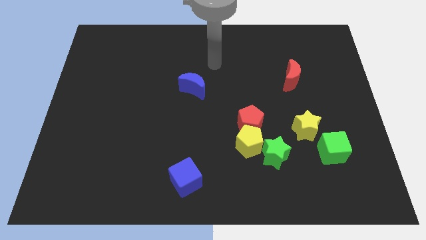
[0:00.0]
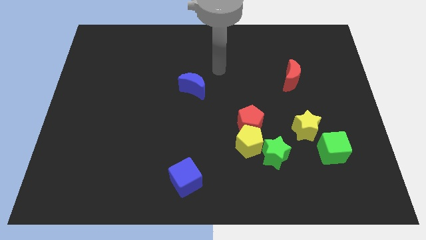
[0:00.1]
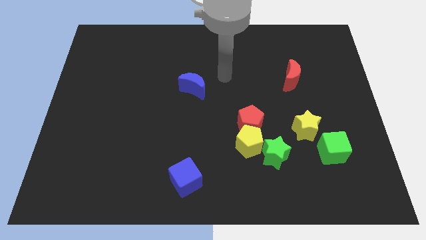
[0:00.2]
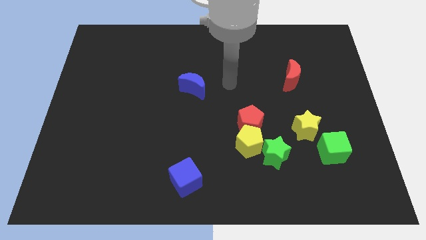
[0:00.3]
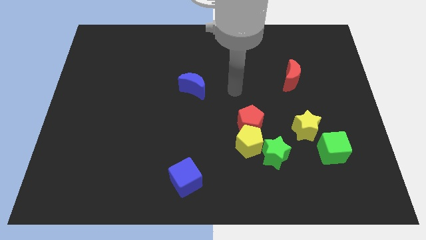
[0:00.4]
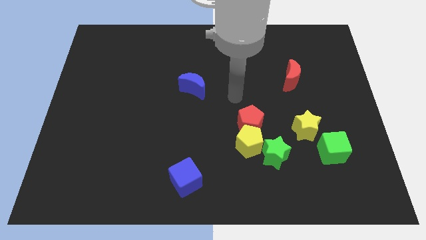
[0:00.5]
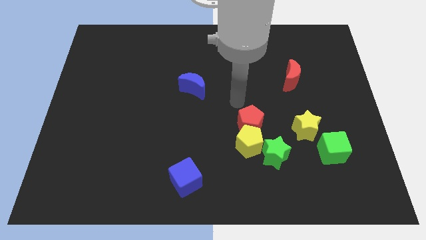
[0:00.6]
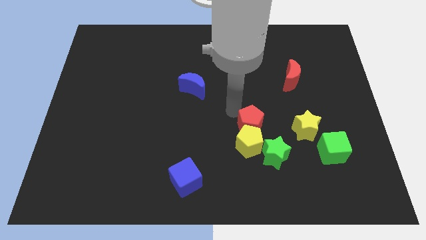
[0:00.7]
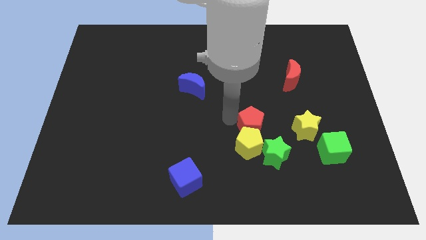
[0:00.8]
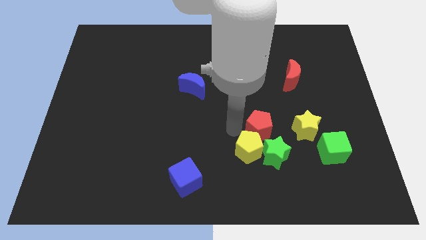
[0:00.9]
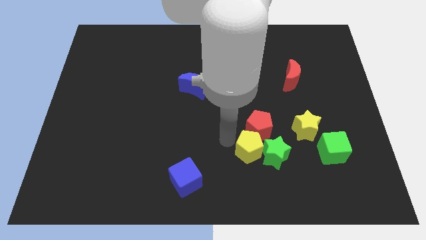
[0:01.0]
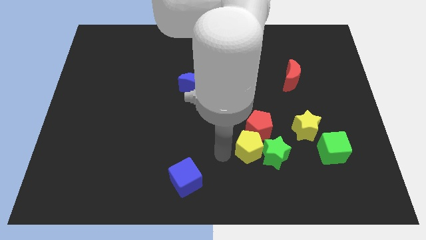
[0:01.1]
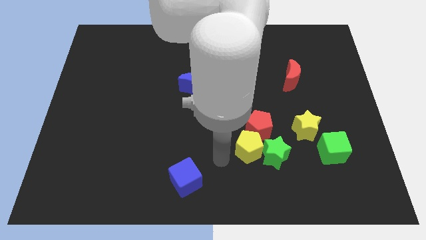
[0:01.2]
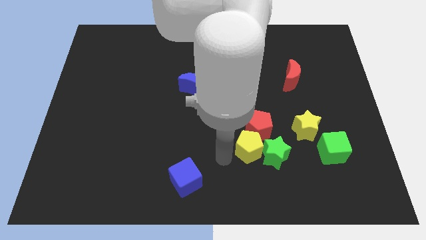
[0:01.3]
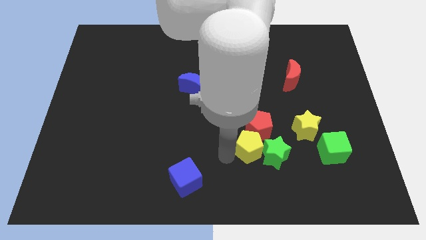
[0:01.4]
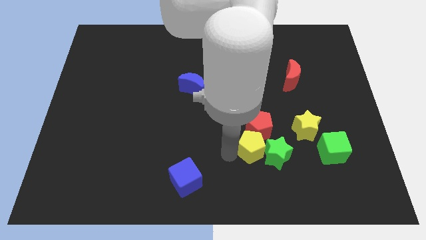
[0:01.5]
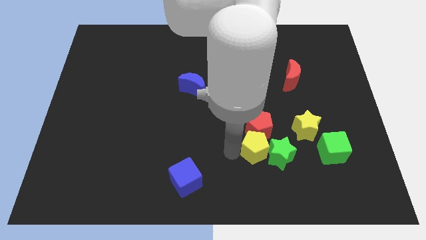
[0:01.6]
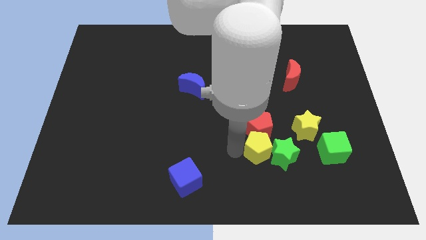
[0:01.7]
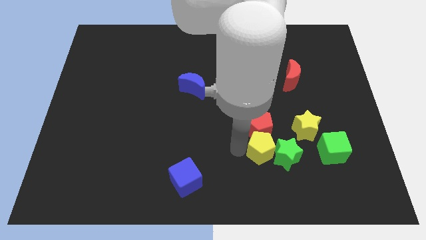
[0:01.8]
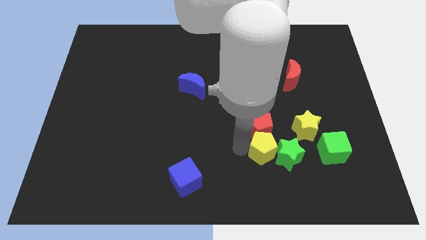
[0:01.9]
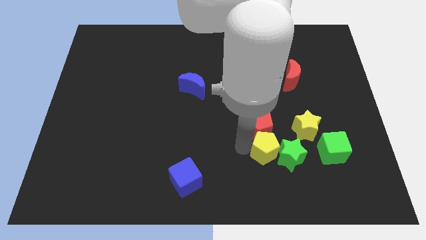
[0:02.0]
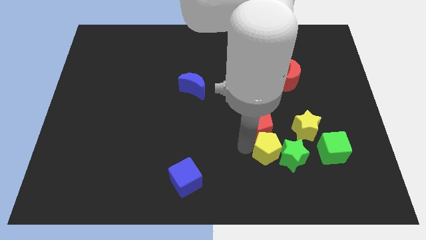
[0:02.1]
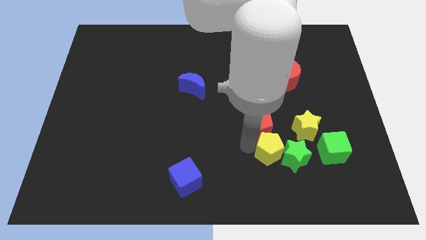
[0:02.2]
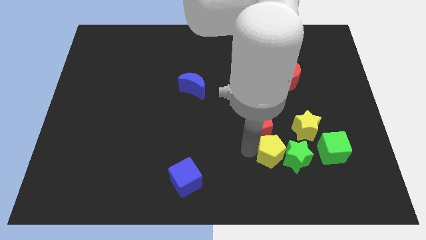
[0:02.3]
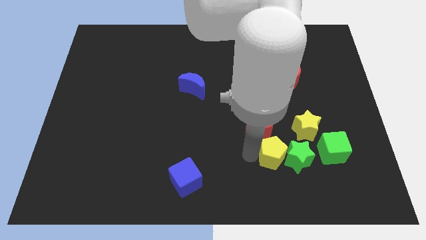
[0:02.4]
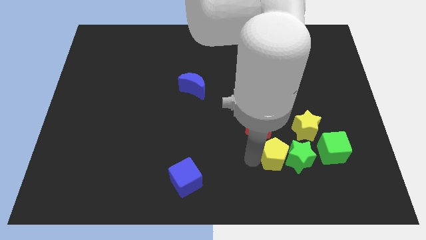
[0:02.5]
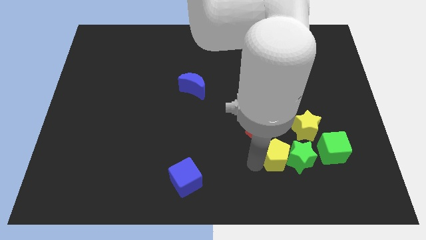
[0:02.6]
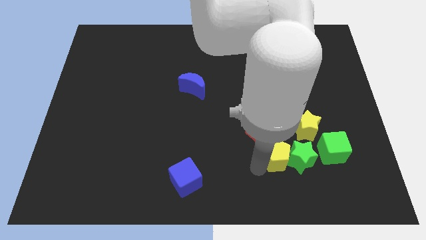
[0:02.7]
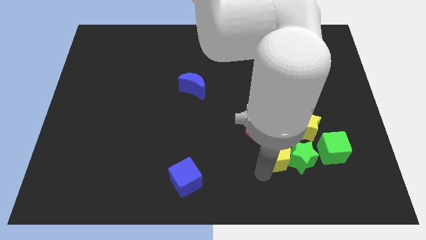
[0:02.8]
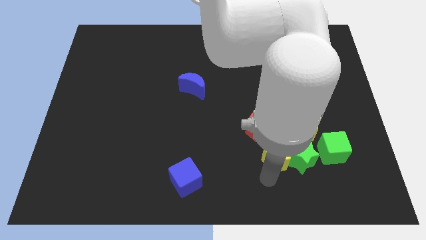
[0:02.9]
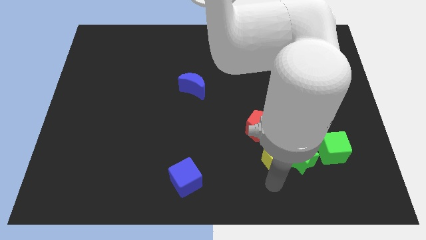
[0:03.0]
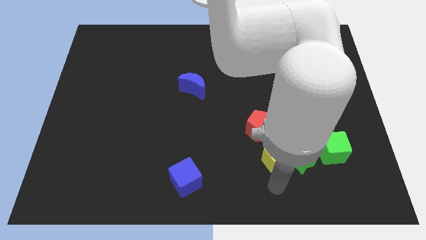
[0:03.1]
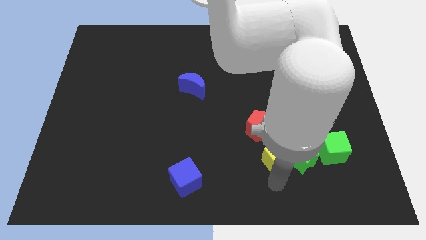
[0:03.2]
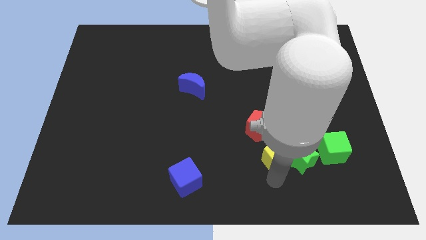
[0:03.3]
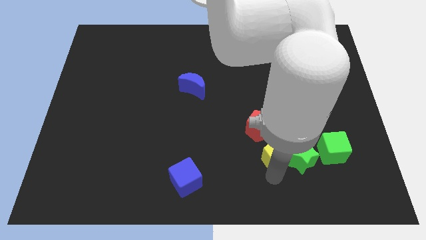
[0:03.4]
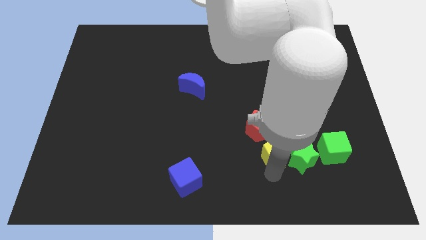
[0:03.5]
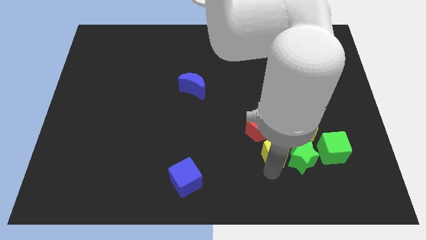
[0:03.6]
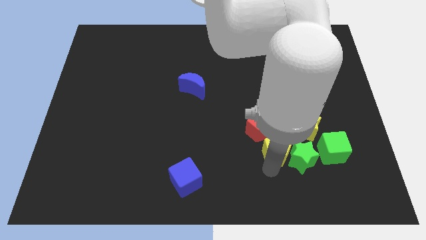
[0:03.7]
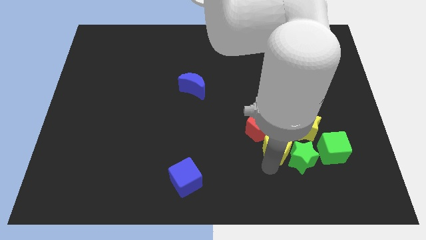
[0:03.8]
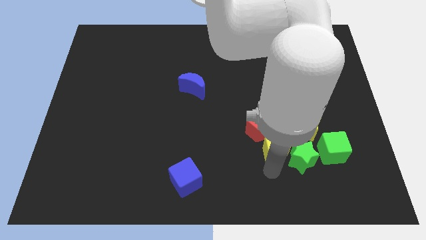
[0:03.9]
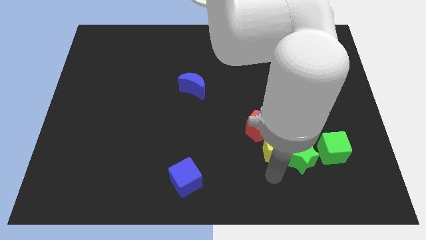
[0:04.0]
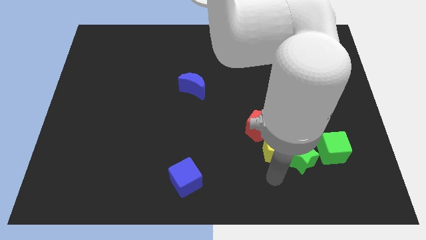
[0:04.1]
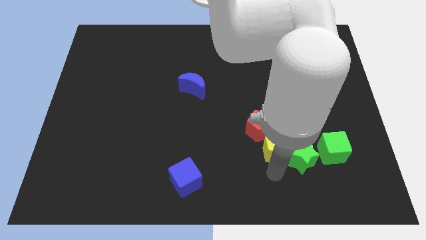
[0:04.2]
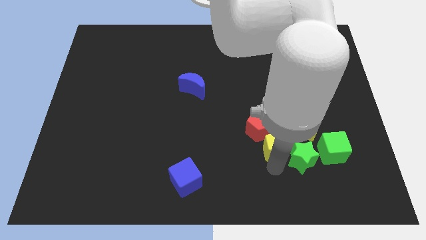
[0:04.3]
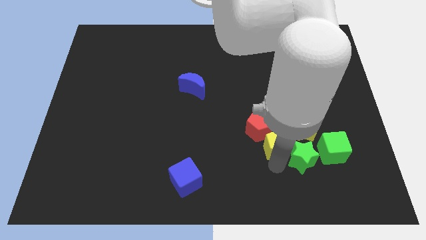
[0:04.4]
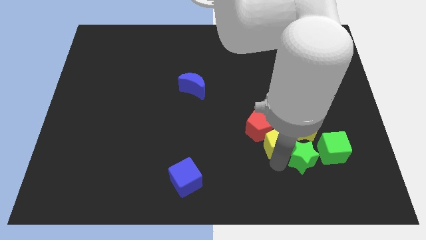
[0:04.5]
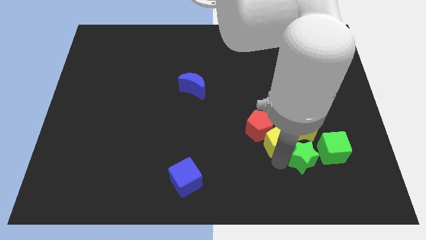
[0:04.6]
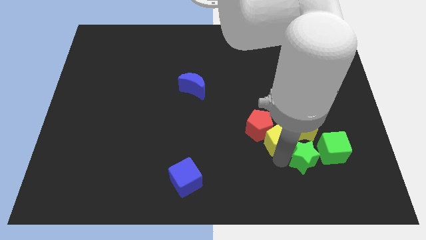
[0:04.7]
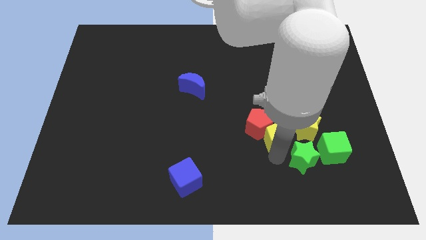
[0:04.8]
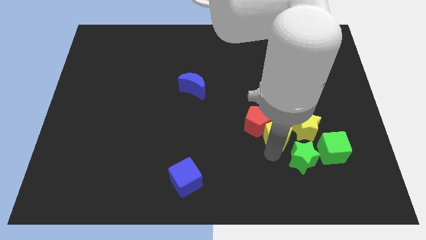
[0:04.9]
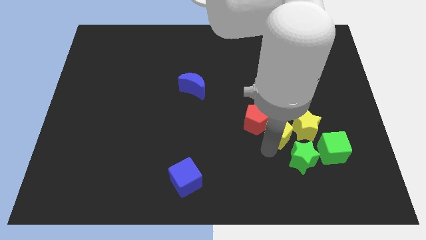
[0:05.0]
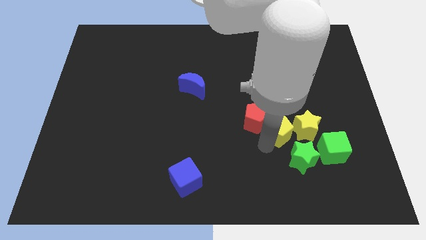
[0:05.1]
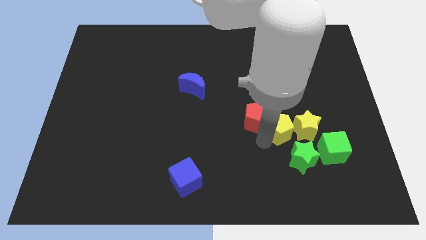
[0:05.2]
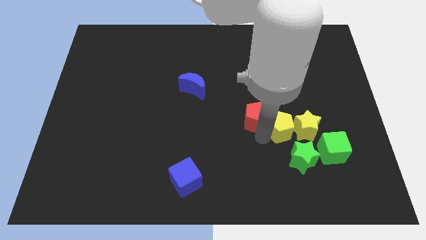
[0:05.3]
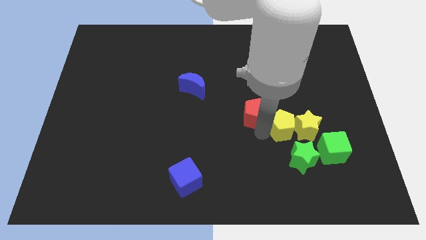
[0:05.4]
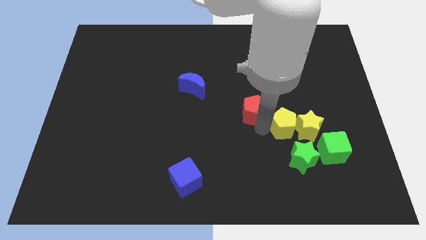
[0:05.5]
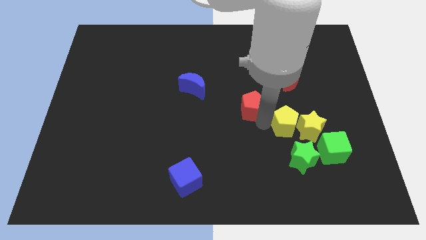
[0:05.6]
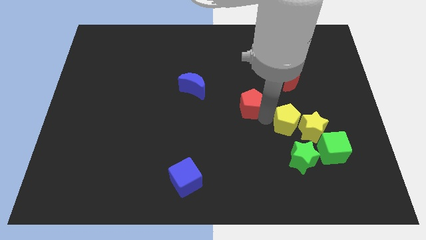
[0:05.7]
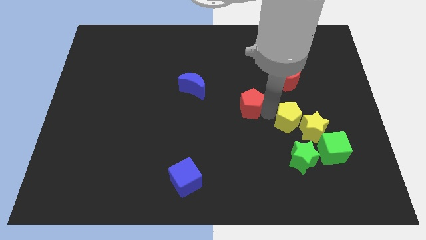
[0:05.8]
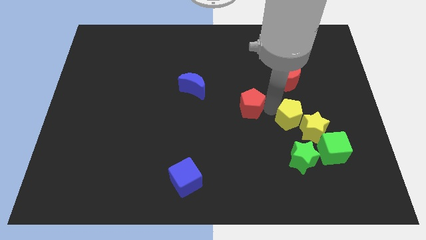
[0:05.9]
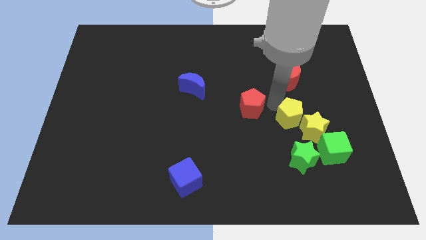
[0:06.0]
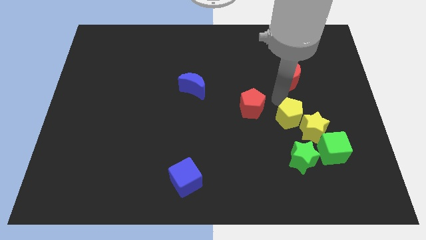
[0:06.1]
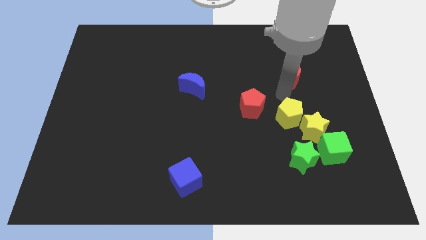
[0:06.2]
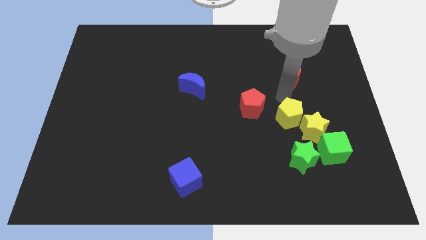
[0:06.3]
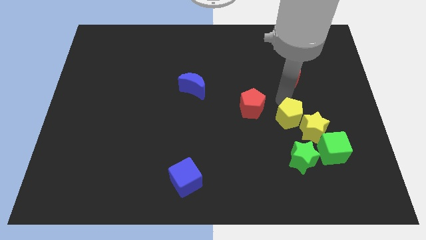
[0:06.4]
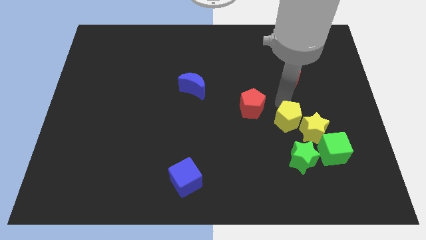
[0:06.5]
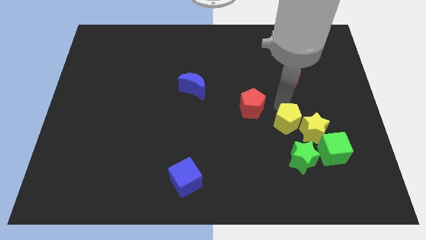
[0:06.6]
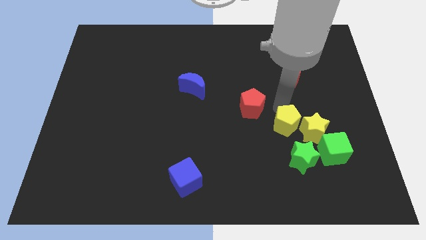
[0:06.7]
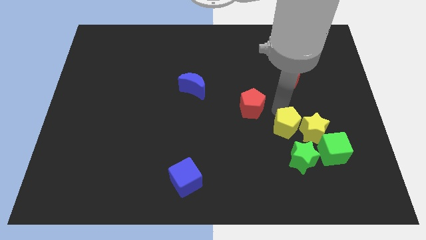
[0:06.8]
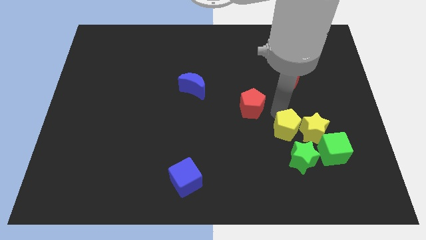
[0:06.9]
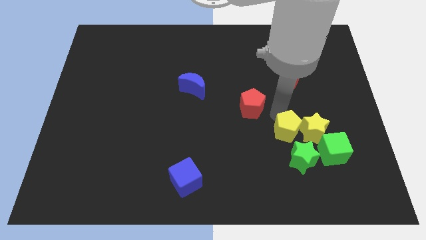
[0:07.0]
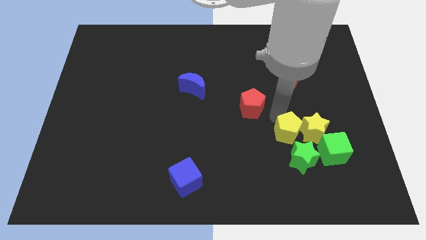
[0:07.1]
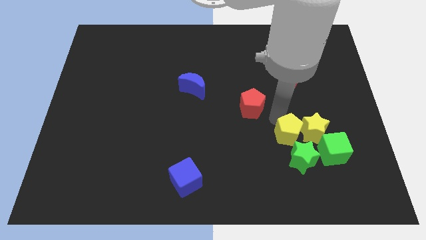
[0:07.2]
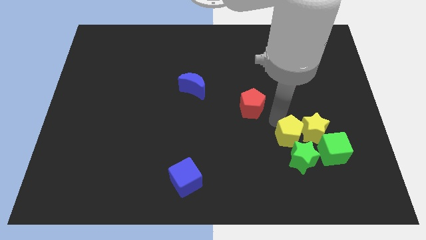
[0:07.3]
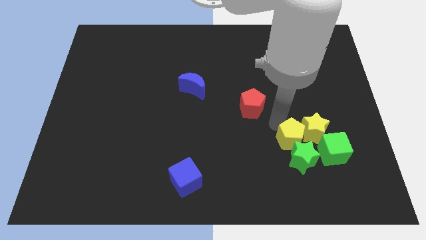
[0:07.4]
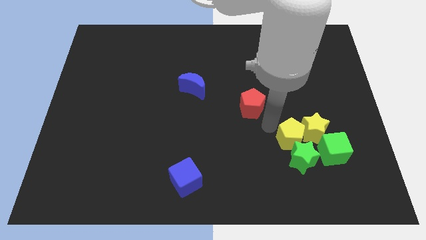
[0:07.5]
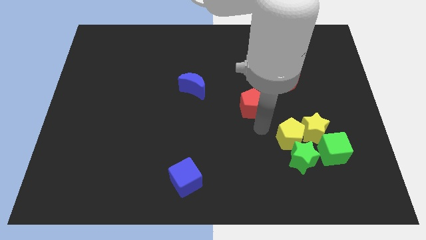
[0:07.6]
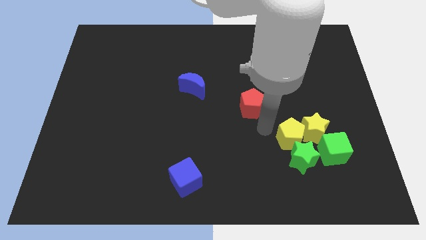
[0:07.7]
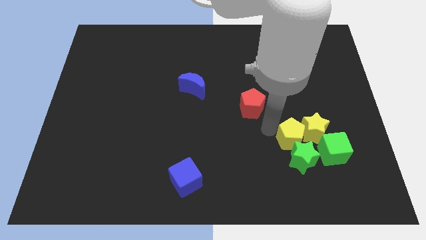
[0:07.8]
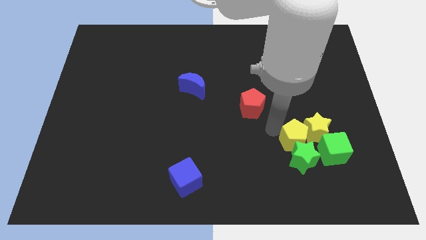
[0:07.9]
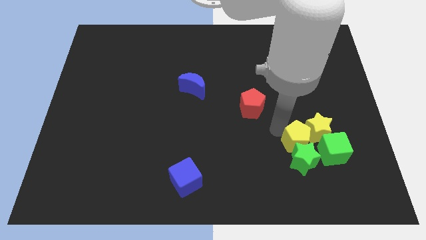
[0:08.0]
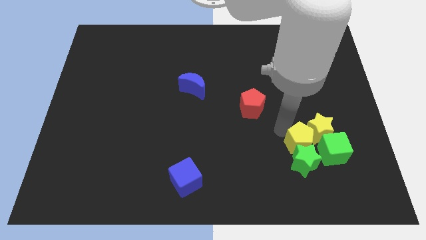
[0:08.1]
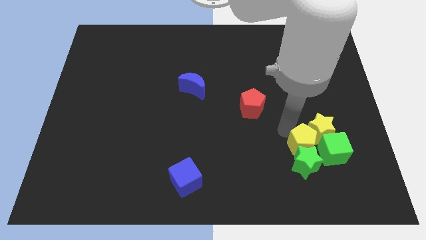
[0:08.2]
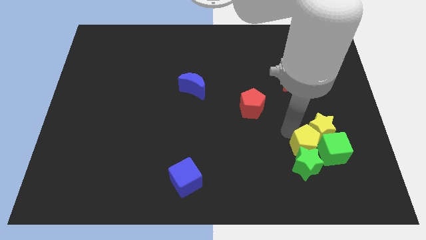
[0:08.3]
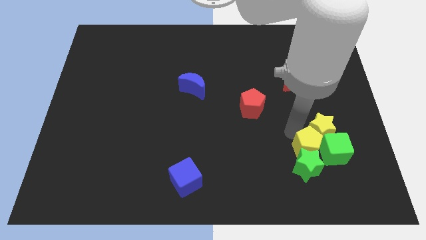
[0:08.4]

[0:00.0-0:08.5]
slide the yellow pentagon next to the green cube
